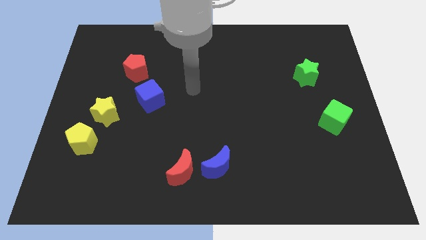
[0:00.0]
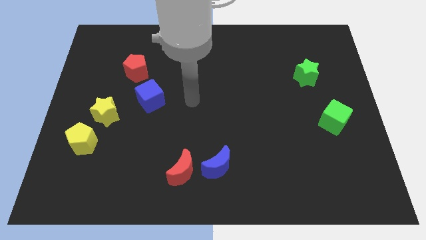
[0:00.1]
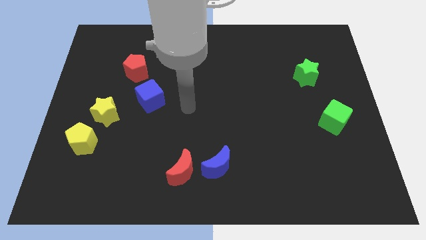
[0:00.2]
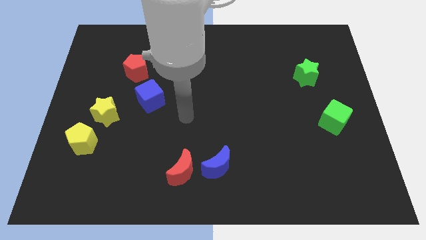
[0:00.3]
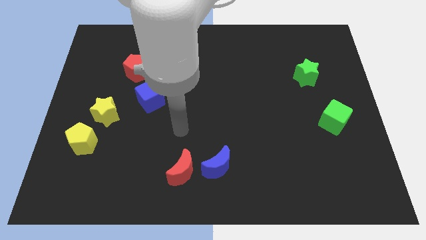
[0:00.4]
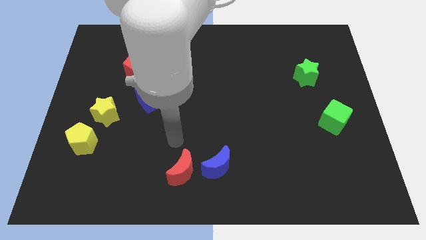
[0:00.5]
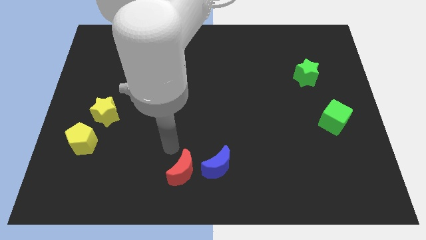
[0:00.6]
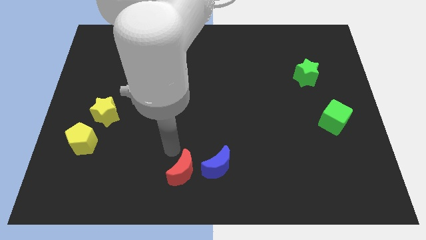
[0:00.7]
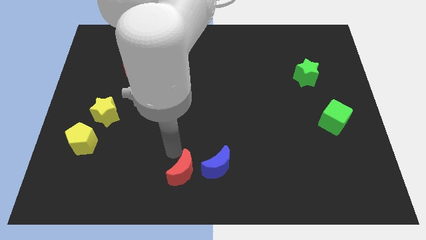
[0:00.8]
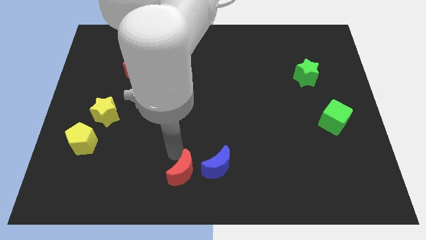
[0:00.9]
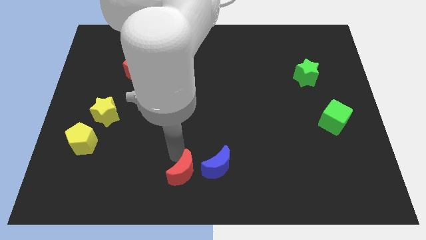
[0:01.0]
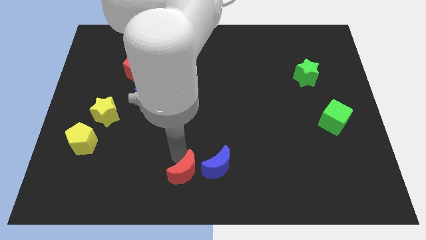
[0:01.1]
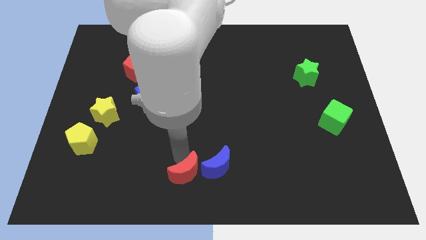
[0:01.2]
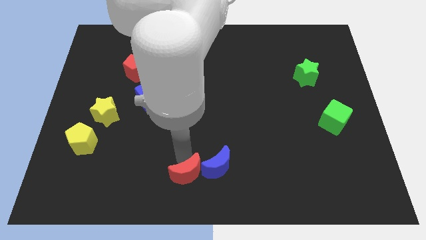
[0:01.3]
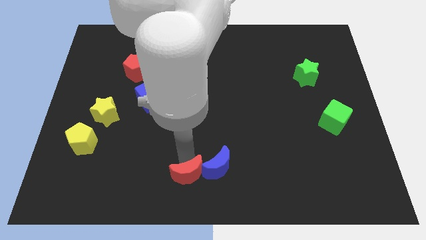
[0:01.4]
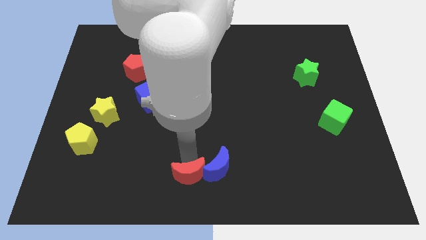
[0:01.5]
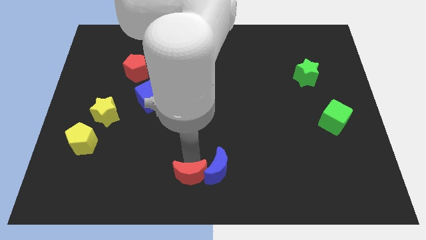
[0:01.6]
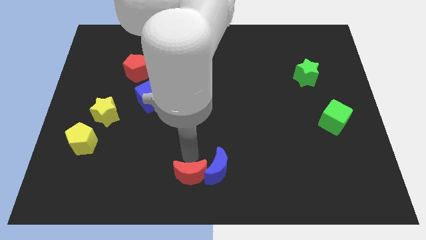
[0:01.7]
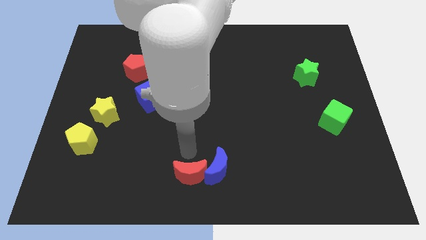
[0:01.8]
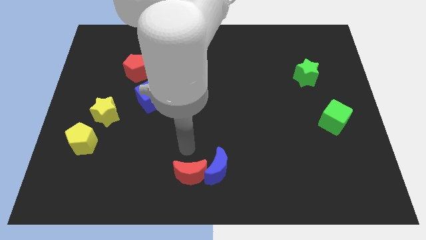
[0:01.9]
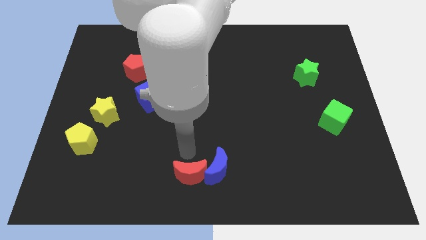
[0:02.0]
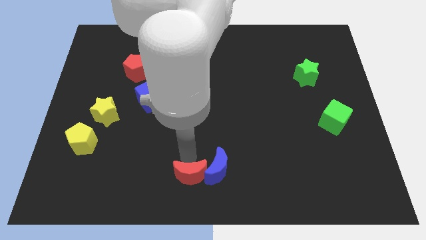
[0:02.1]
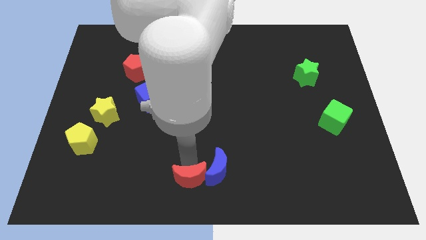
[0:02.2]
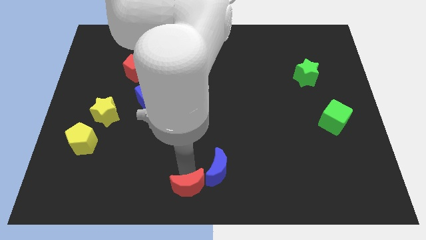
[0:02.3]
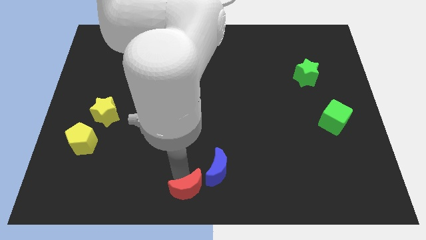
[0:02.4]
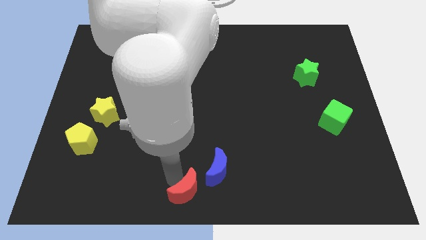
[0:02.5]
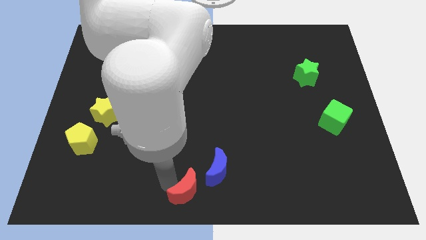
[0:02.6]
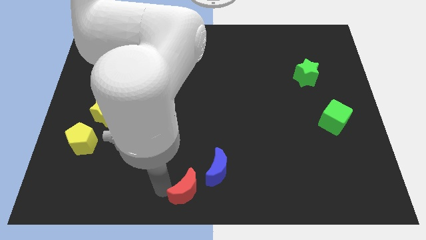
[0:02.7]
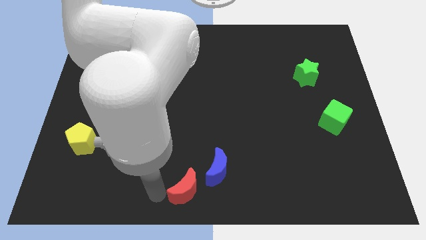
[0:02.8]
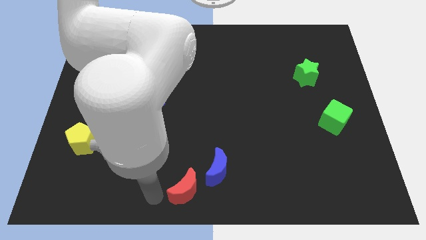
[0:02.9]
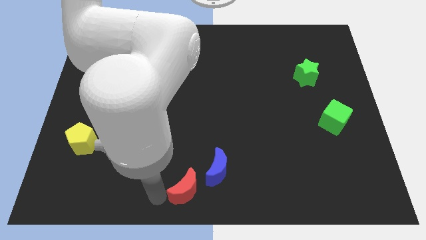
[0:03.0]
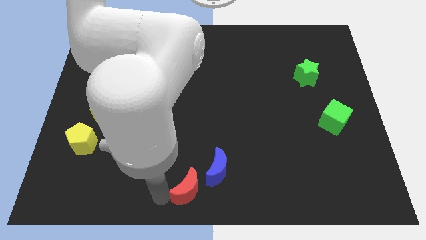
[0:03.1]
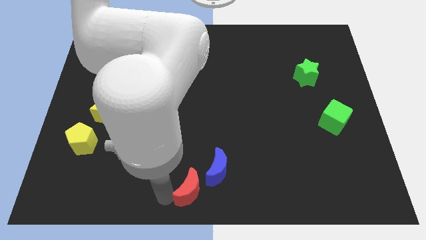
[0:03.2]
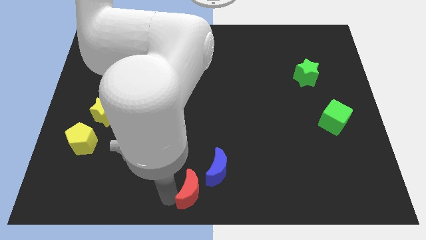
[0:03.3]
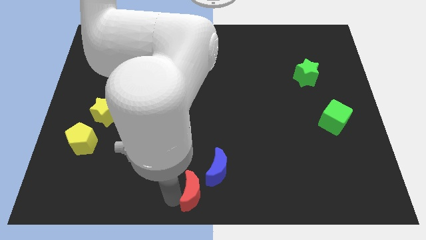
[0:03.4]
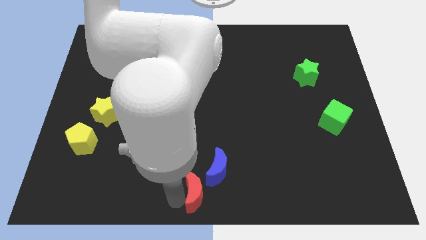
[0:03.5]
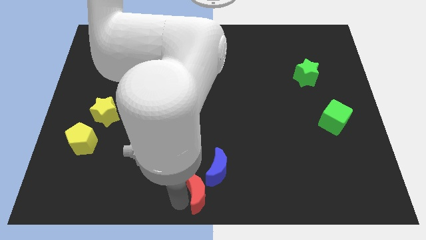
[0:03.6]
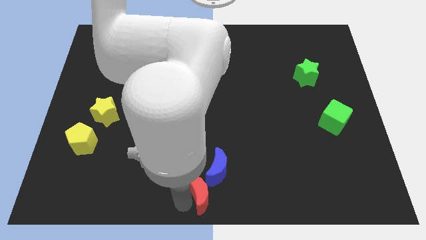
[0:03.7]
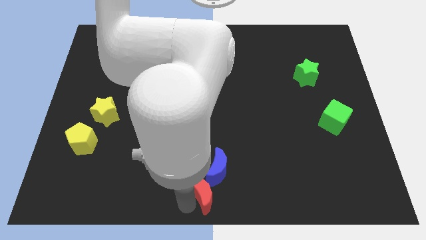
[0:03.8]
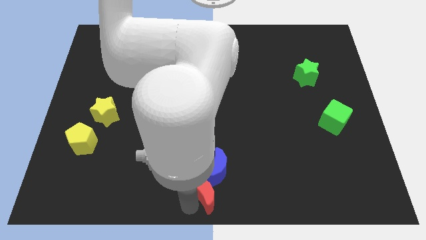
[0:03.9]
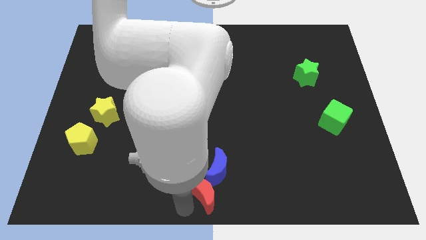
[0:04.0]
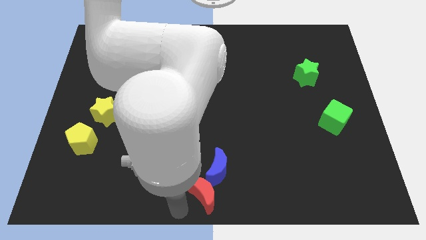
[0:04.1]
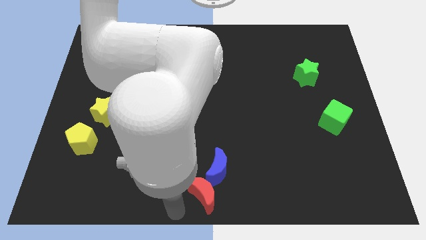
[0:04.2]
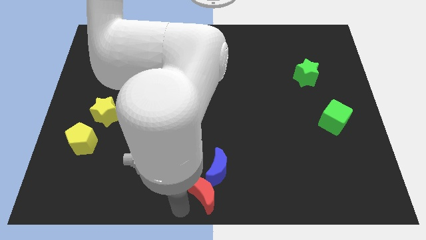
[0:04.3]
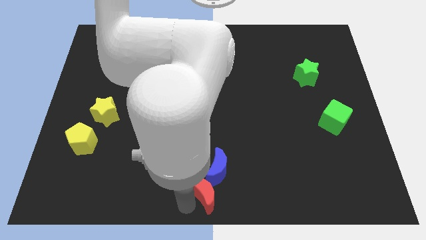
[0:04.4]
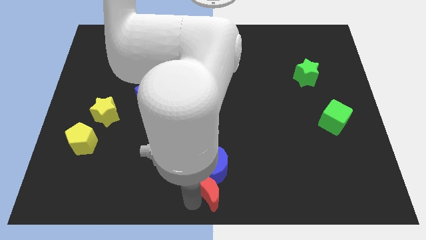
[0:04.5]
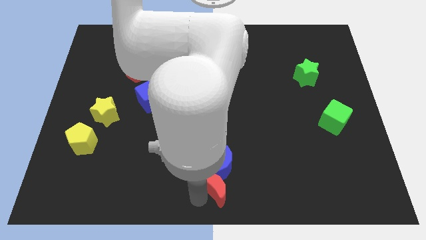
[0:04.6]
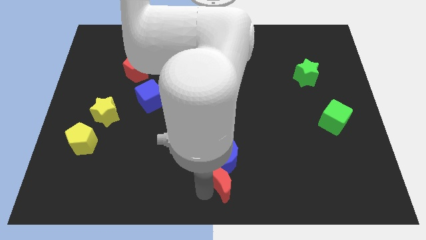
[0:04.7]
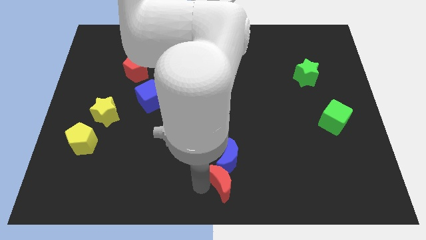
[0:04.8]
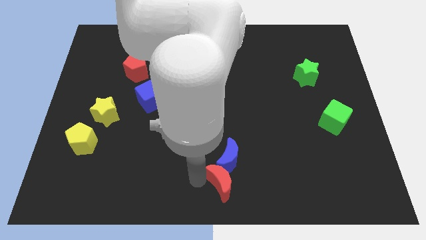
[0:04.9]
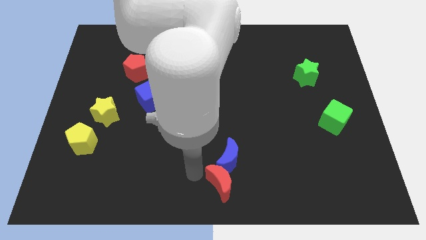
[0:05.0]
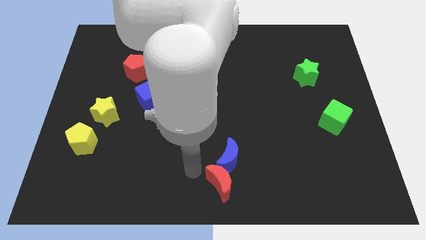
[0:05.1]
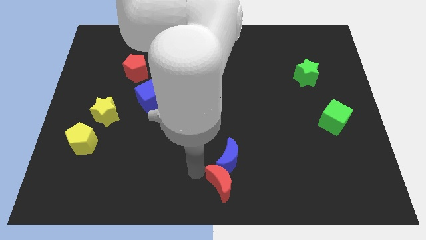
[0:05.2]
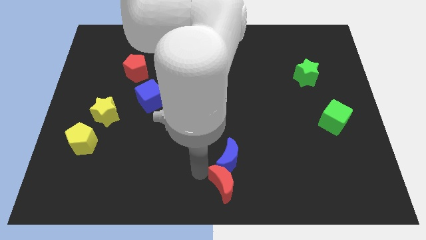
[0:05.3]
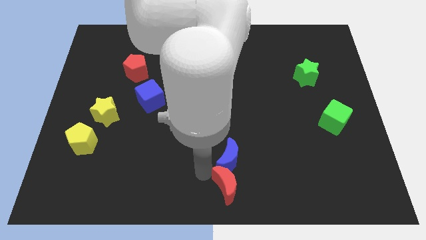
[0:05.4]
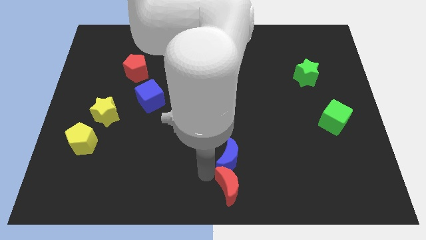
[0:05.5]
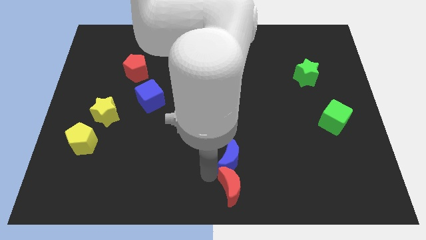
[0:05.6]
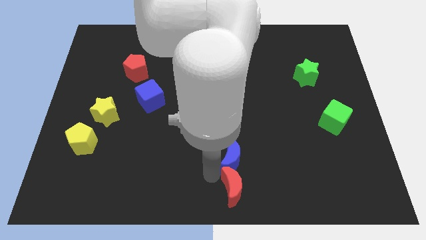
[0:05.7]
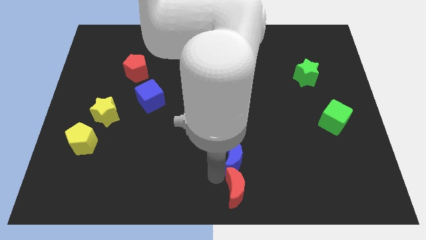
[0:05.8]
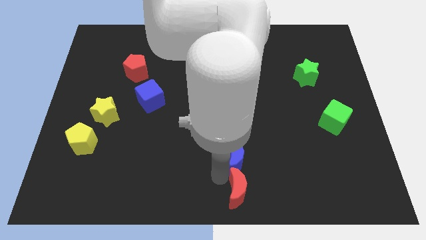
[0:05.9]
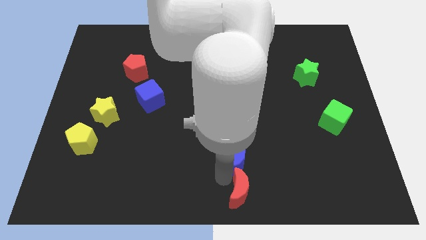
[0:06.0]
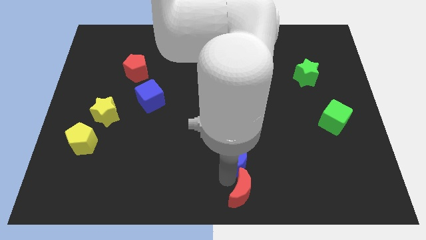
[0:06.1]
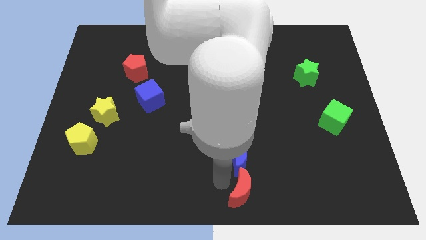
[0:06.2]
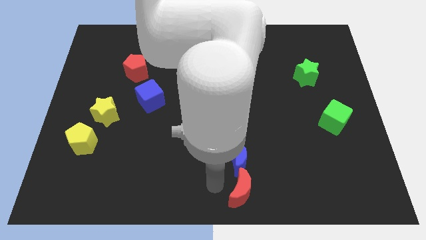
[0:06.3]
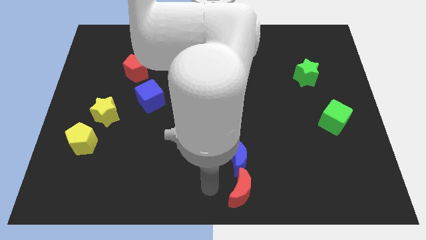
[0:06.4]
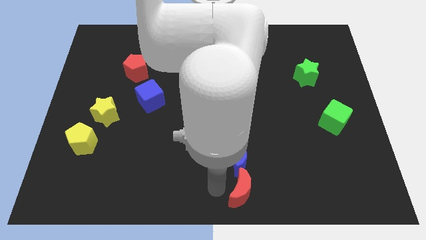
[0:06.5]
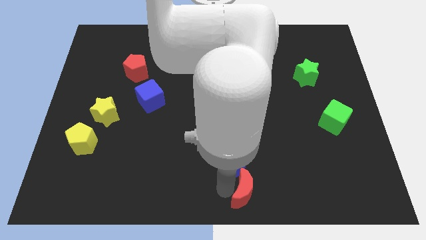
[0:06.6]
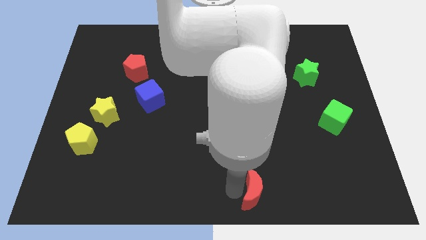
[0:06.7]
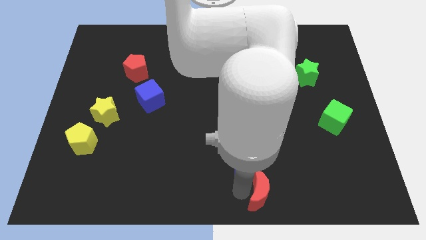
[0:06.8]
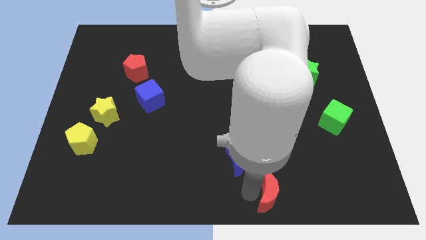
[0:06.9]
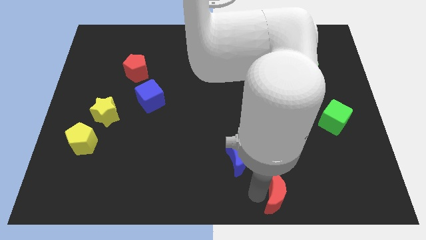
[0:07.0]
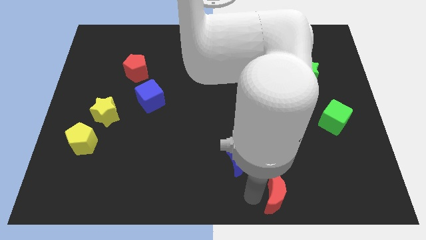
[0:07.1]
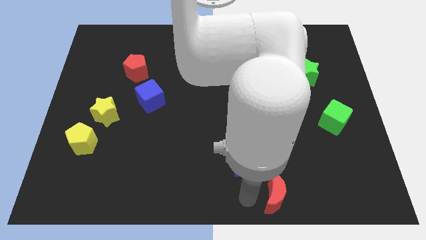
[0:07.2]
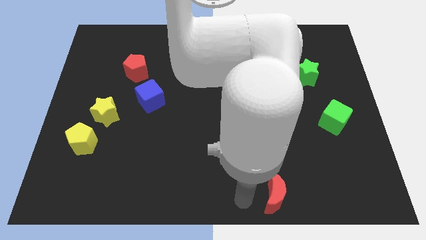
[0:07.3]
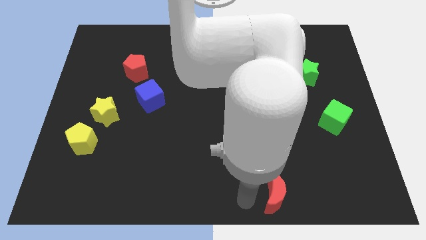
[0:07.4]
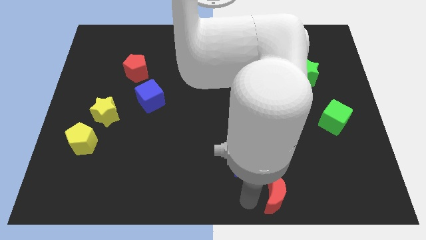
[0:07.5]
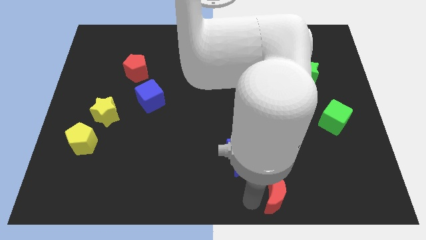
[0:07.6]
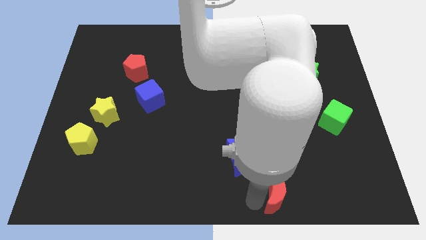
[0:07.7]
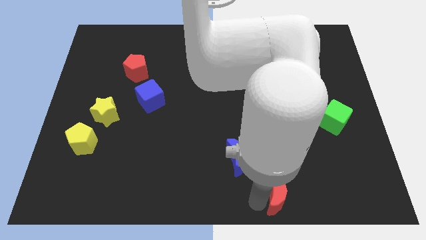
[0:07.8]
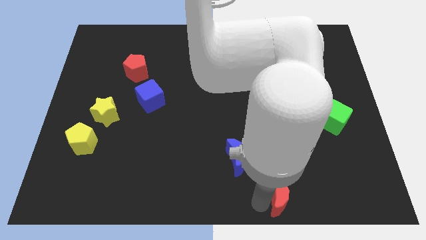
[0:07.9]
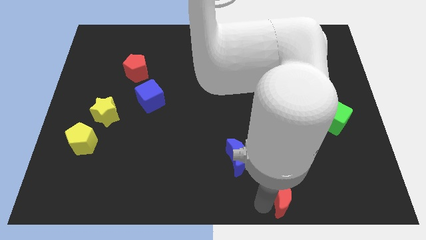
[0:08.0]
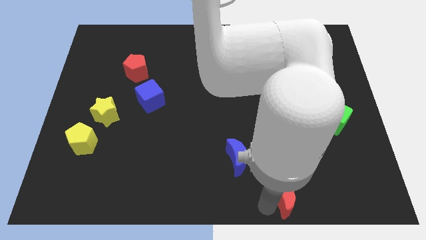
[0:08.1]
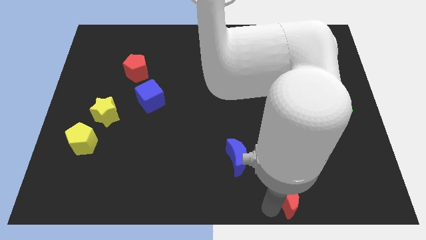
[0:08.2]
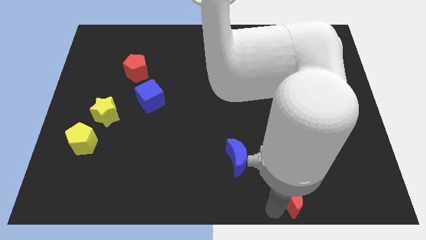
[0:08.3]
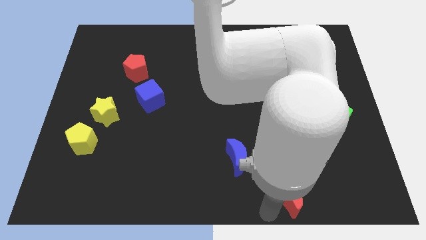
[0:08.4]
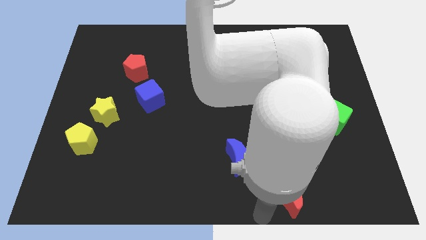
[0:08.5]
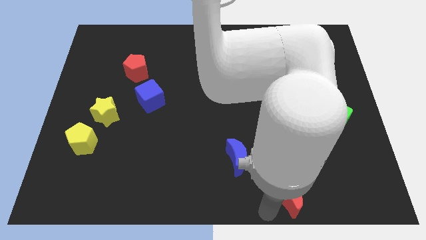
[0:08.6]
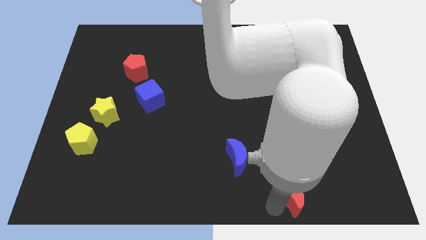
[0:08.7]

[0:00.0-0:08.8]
push the red moon right
